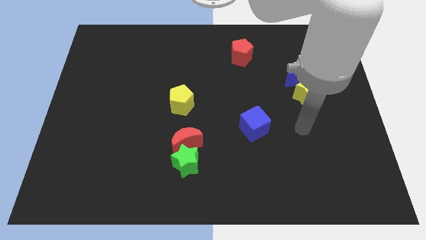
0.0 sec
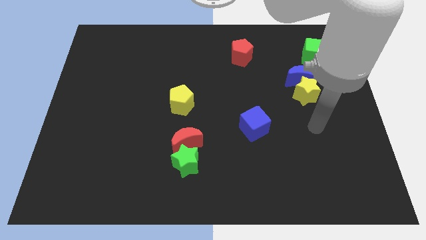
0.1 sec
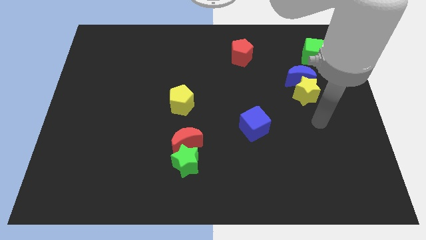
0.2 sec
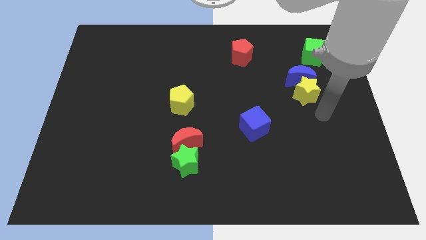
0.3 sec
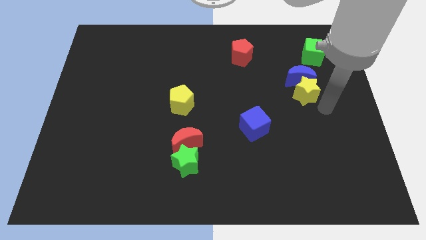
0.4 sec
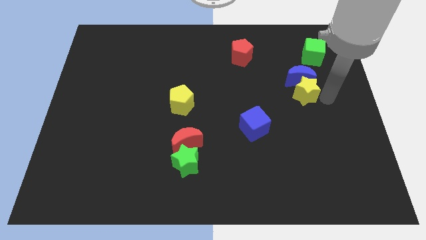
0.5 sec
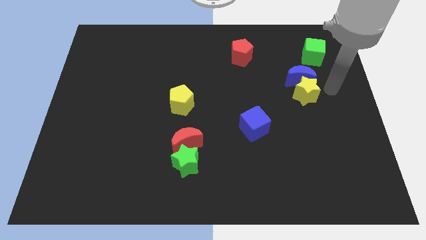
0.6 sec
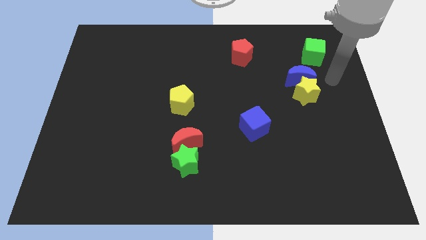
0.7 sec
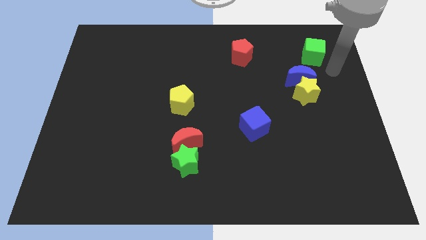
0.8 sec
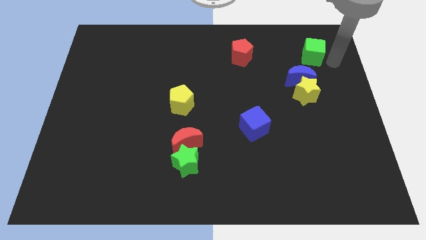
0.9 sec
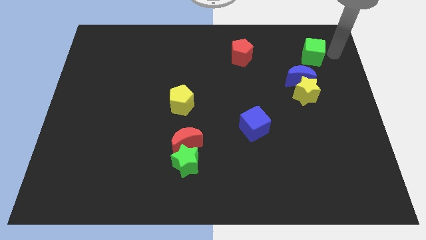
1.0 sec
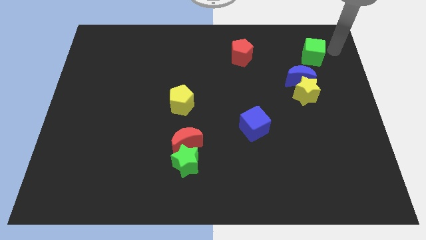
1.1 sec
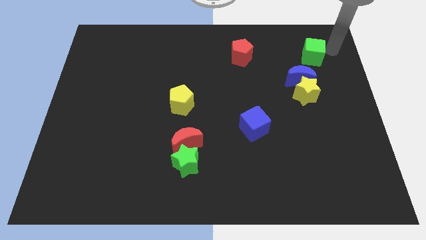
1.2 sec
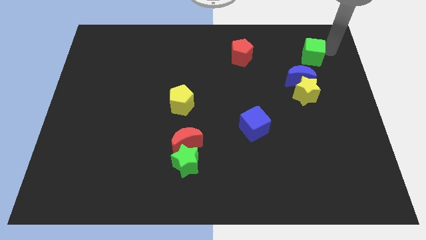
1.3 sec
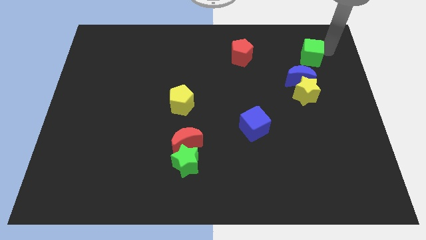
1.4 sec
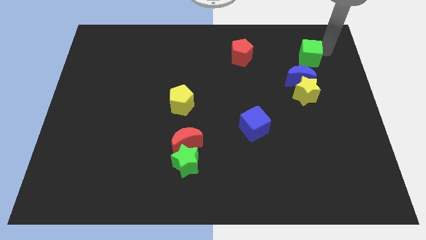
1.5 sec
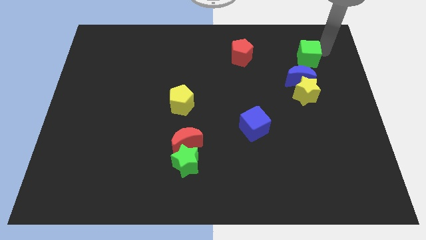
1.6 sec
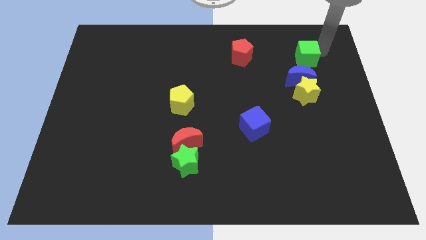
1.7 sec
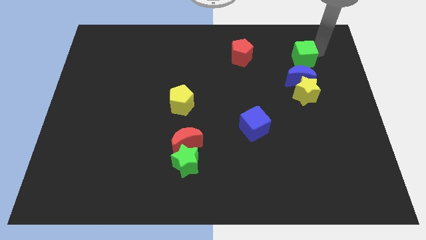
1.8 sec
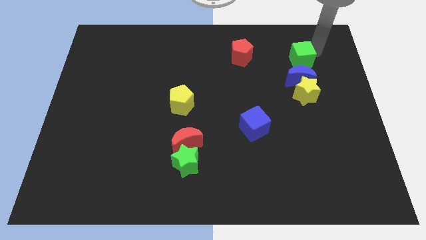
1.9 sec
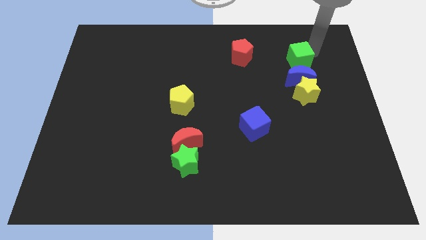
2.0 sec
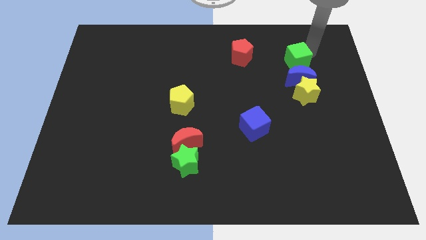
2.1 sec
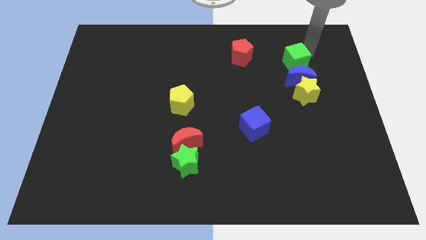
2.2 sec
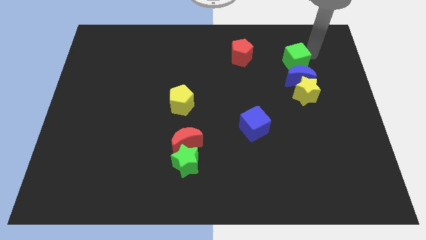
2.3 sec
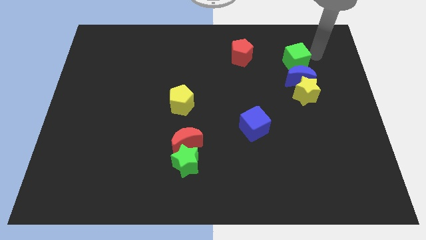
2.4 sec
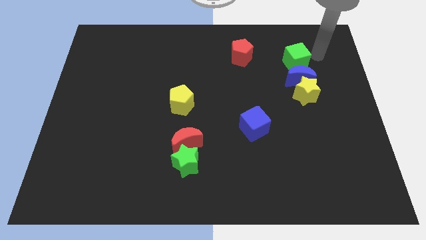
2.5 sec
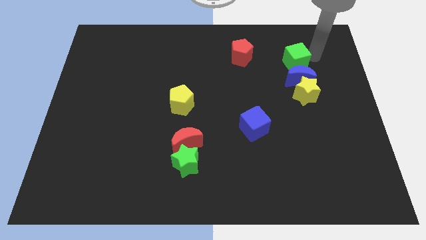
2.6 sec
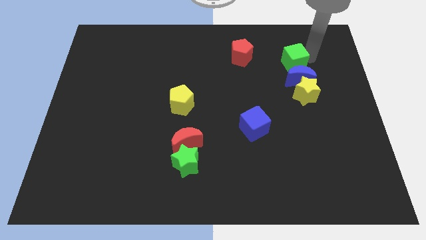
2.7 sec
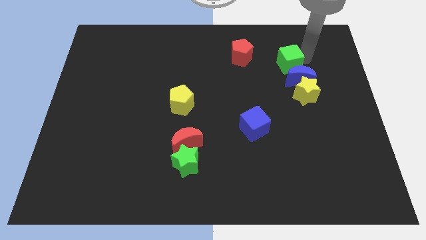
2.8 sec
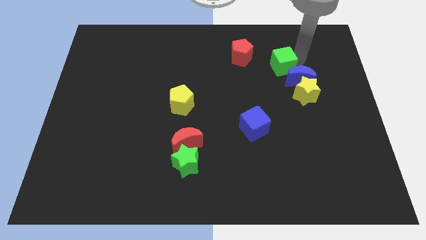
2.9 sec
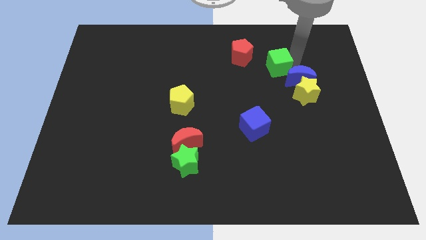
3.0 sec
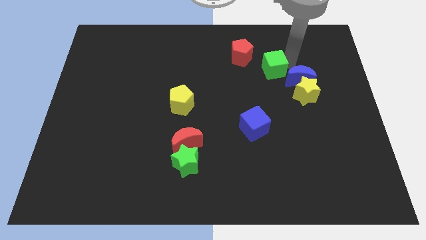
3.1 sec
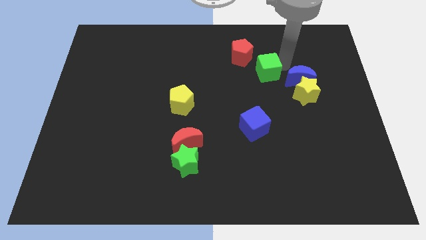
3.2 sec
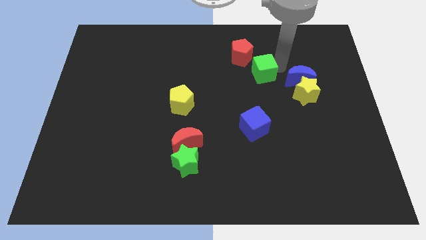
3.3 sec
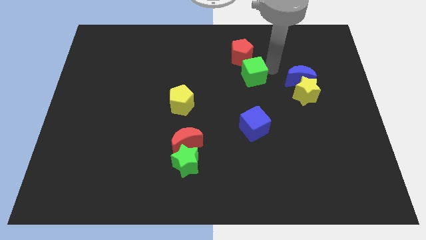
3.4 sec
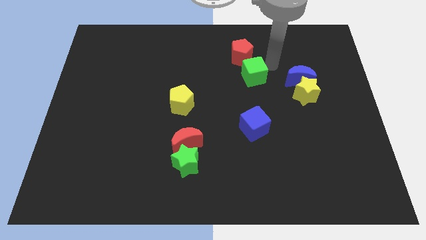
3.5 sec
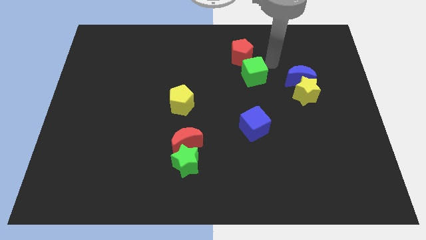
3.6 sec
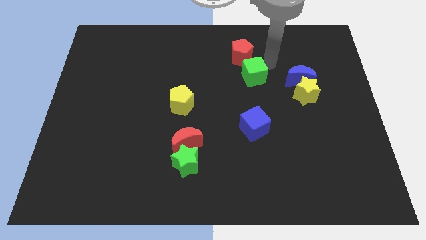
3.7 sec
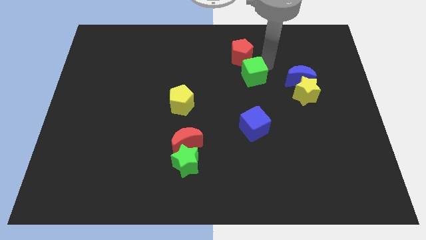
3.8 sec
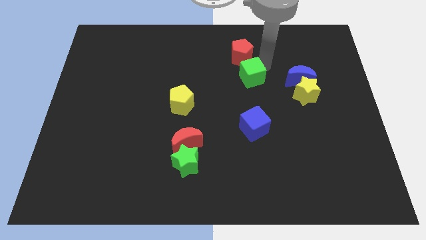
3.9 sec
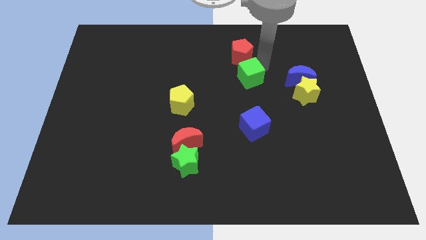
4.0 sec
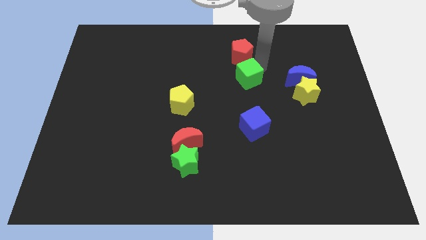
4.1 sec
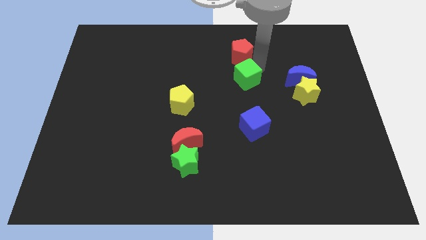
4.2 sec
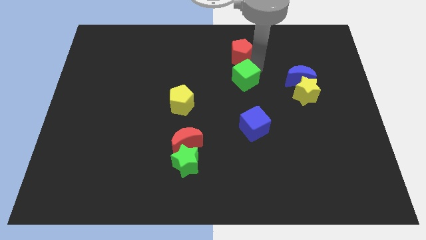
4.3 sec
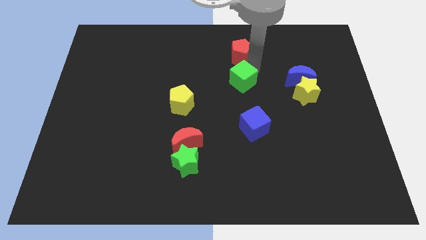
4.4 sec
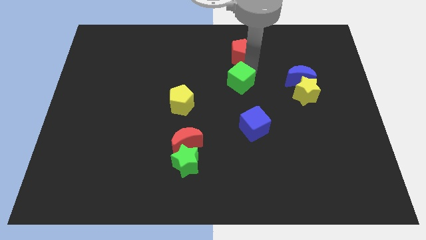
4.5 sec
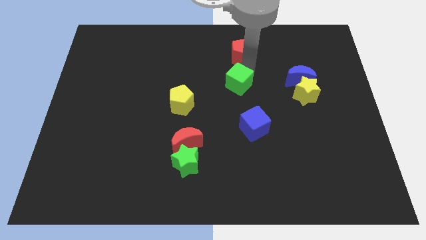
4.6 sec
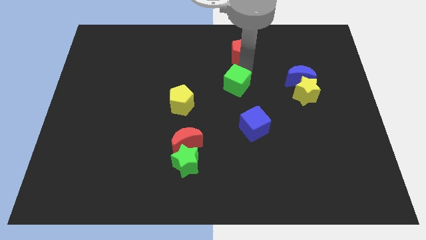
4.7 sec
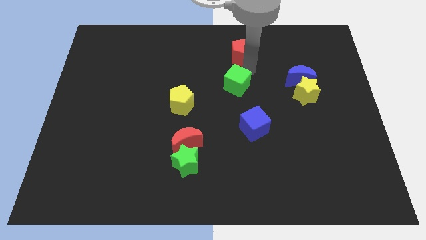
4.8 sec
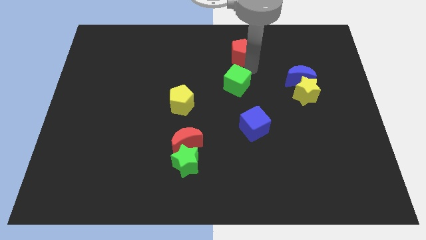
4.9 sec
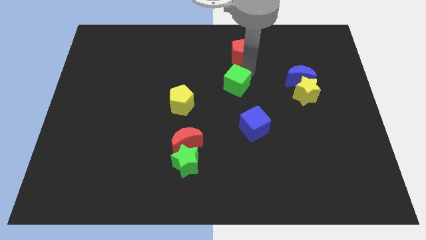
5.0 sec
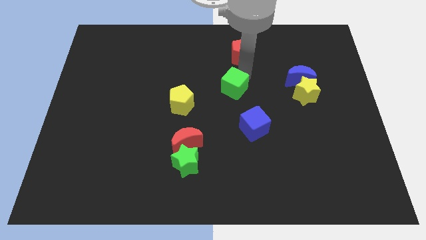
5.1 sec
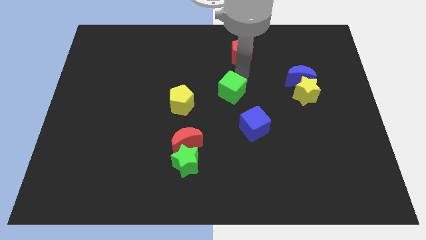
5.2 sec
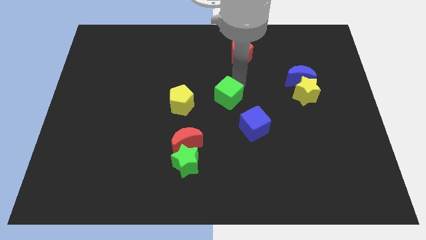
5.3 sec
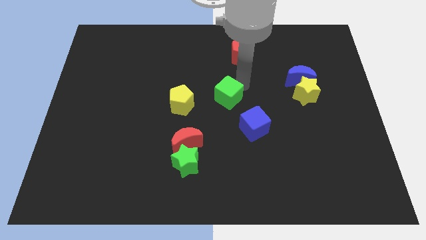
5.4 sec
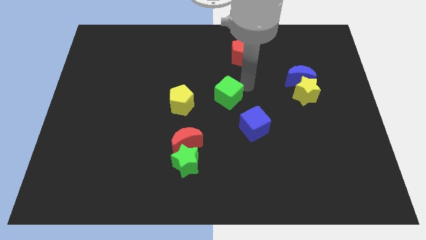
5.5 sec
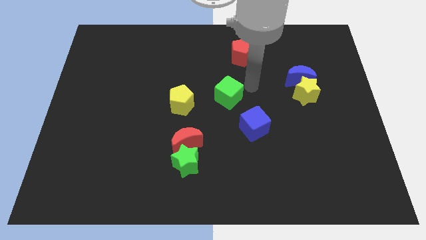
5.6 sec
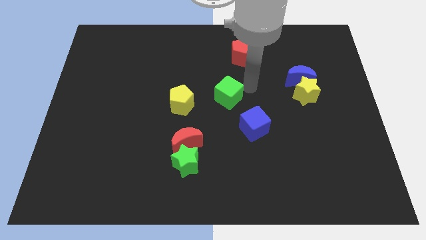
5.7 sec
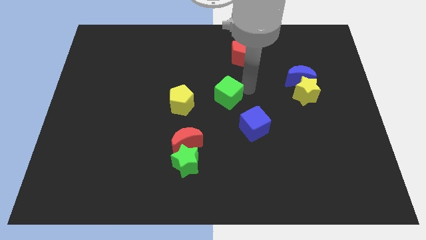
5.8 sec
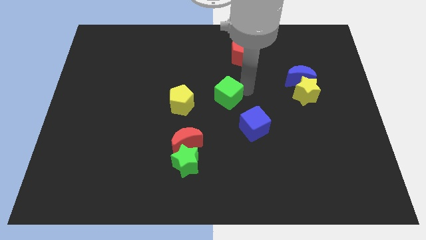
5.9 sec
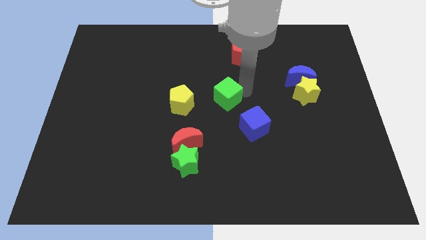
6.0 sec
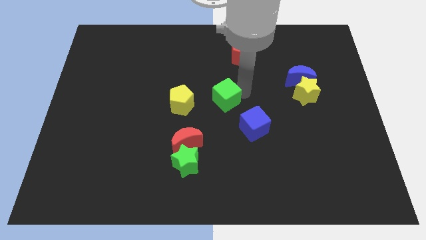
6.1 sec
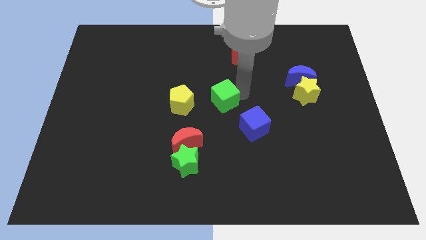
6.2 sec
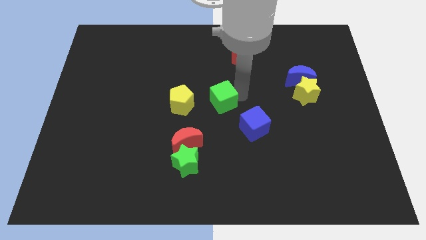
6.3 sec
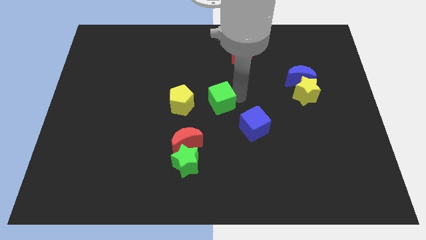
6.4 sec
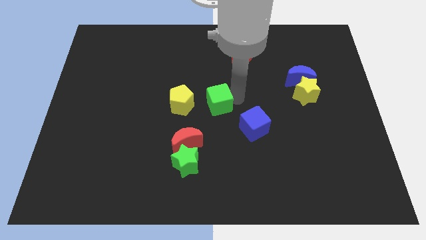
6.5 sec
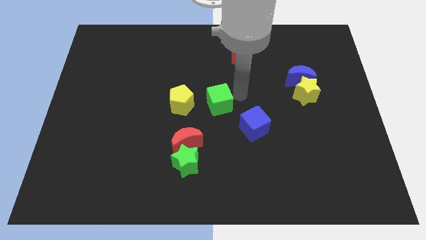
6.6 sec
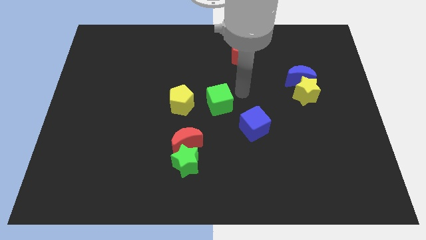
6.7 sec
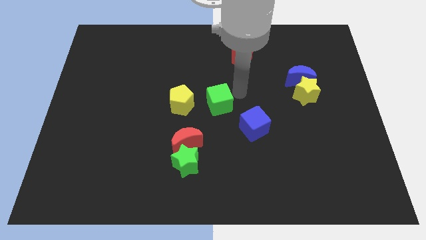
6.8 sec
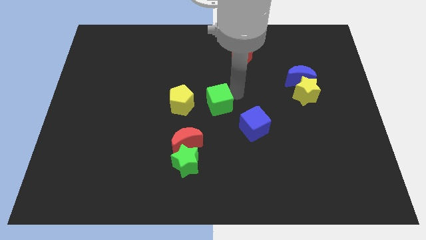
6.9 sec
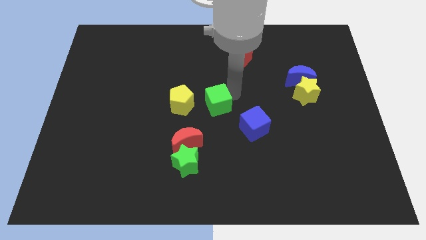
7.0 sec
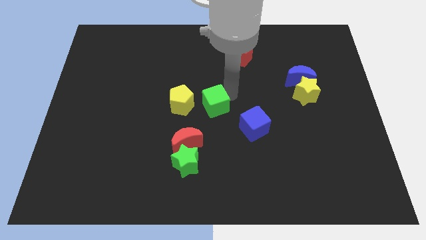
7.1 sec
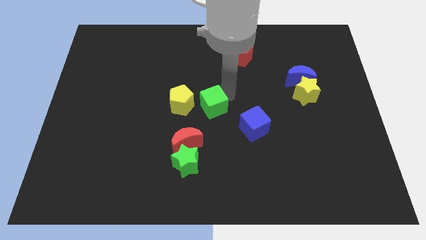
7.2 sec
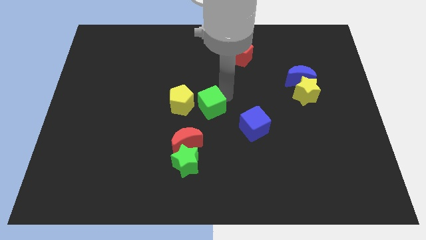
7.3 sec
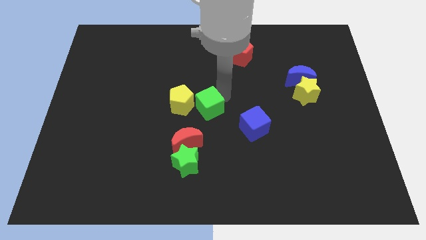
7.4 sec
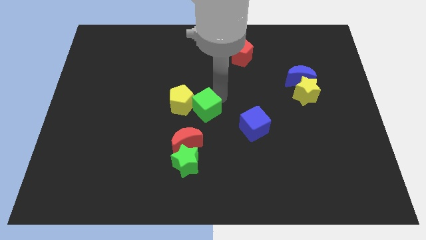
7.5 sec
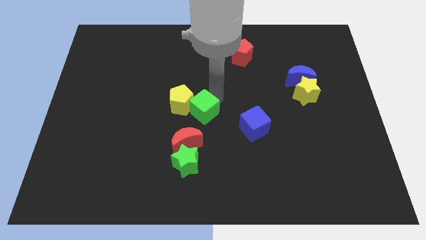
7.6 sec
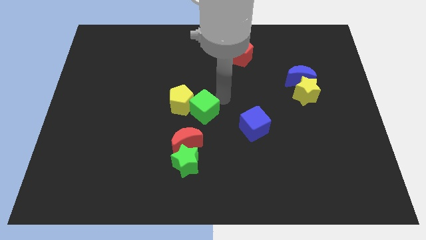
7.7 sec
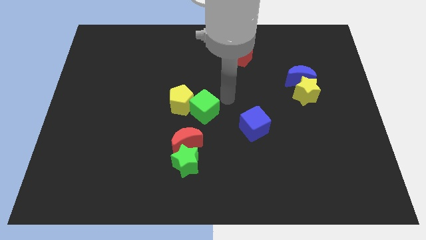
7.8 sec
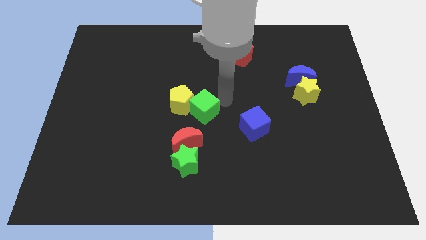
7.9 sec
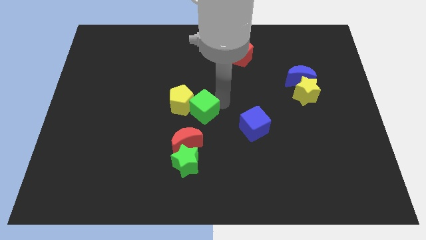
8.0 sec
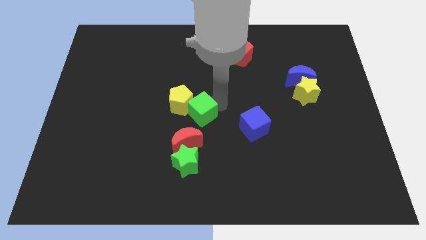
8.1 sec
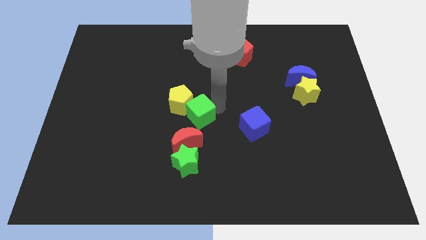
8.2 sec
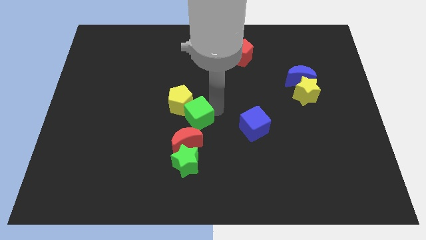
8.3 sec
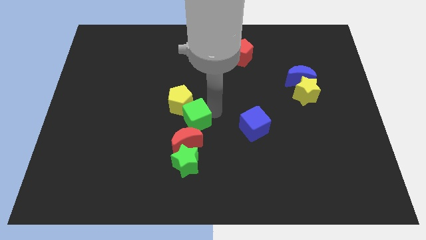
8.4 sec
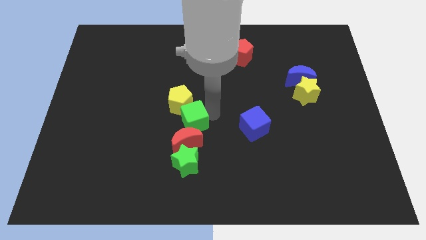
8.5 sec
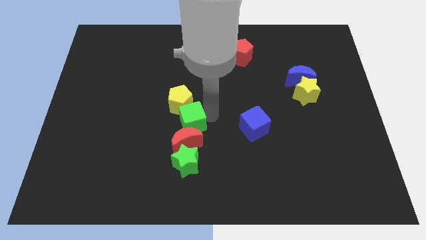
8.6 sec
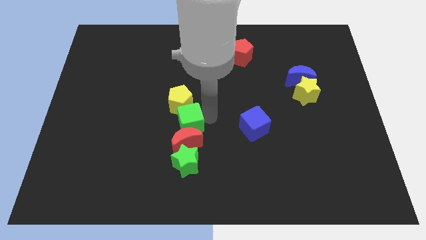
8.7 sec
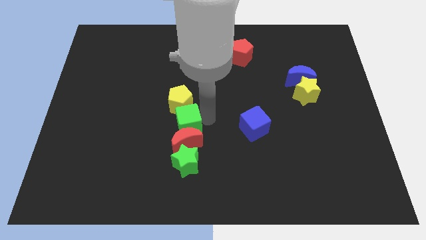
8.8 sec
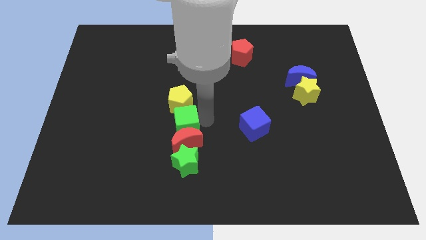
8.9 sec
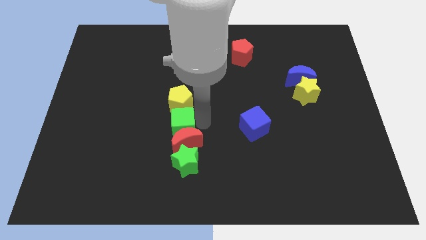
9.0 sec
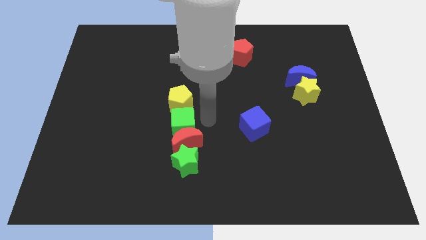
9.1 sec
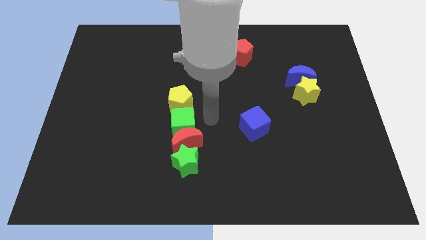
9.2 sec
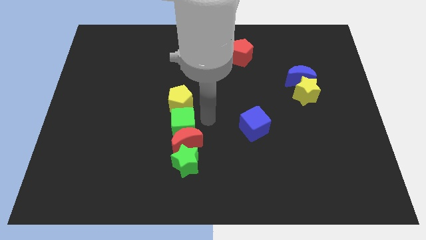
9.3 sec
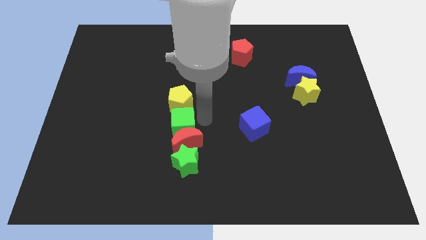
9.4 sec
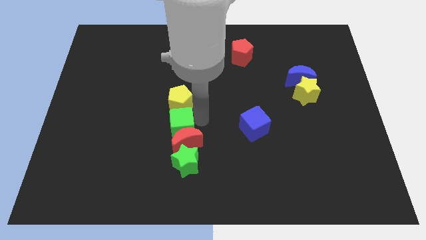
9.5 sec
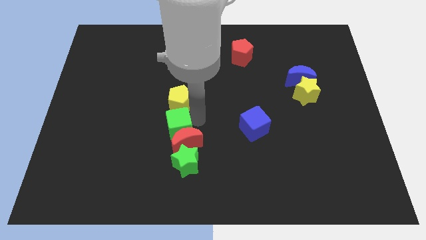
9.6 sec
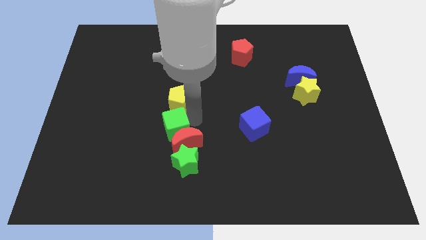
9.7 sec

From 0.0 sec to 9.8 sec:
push the green cube just left of the red moon
